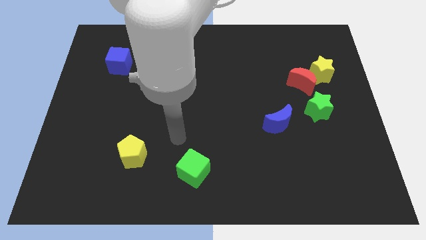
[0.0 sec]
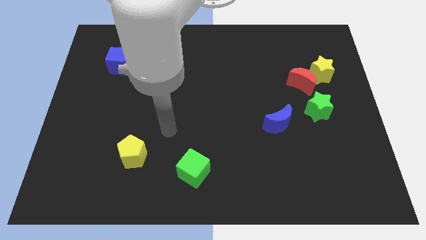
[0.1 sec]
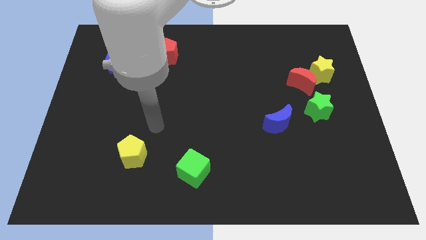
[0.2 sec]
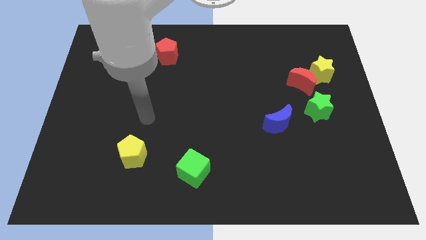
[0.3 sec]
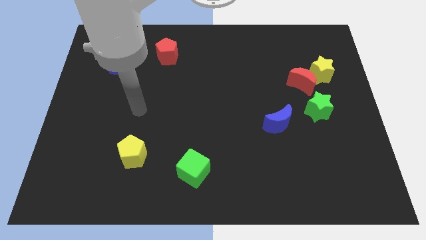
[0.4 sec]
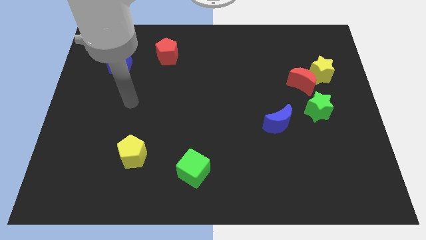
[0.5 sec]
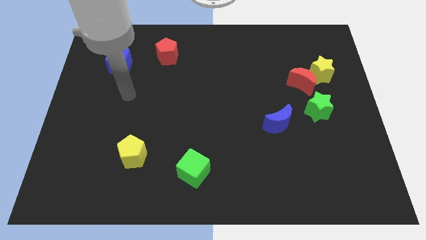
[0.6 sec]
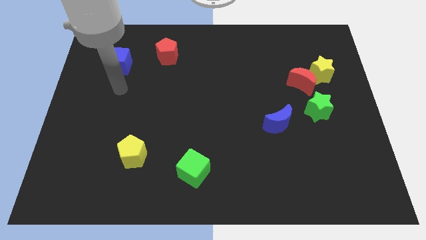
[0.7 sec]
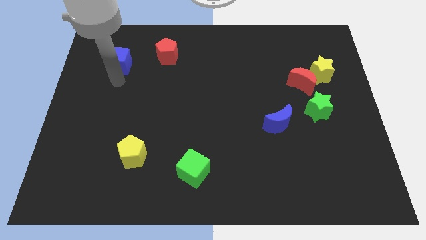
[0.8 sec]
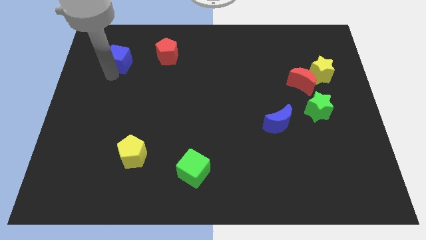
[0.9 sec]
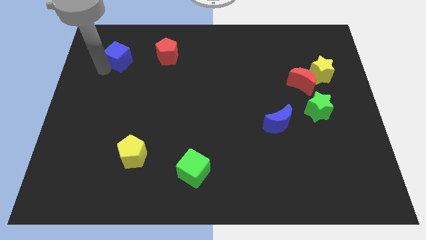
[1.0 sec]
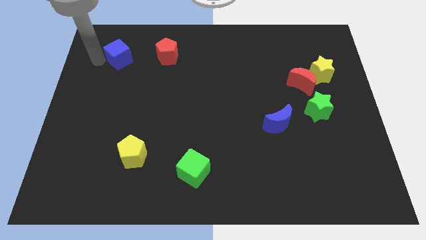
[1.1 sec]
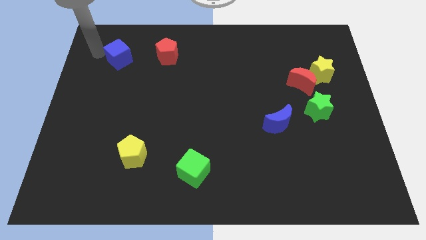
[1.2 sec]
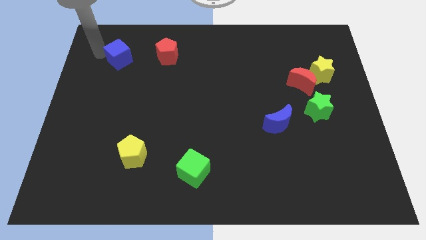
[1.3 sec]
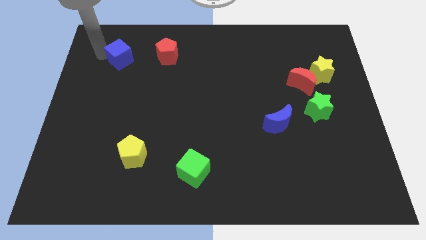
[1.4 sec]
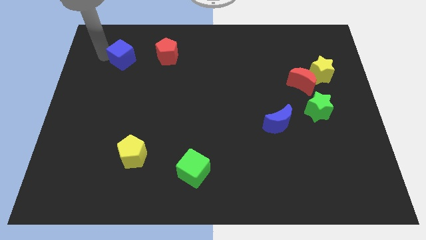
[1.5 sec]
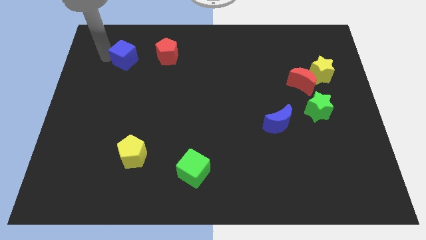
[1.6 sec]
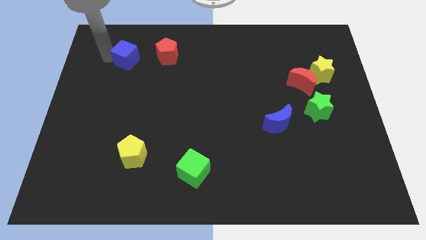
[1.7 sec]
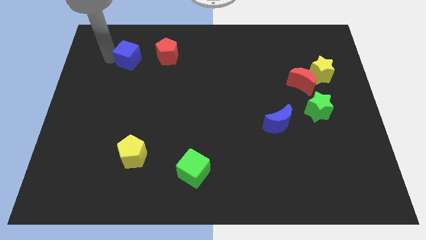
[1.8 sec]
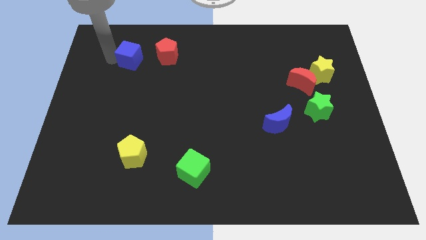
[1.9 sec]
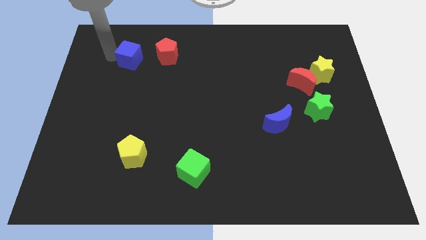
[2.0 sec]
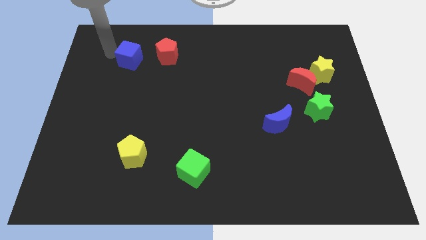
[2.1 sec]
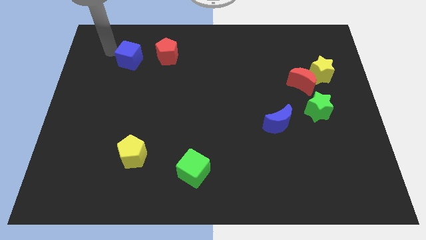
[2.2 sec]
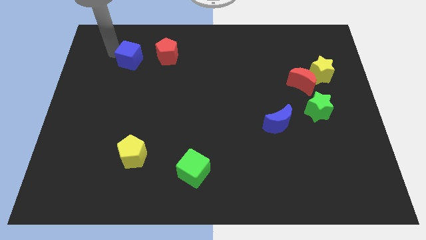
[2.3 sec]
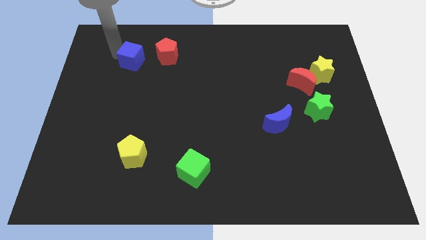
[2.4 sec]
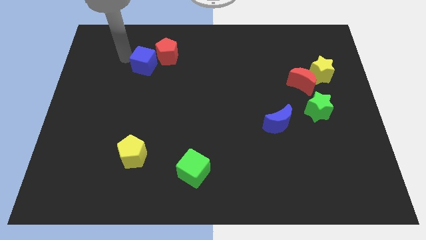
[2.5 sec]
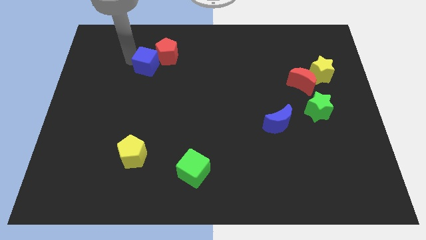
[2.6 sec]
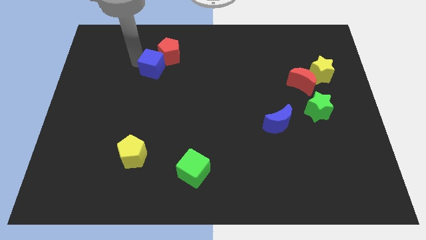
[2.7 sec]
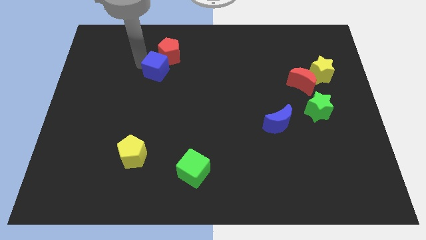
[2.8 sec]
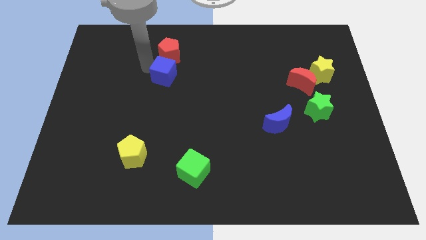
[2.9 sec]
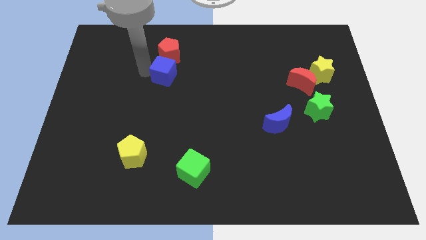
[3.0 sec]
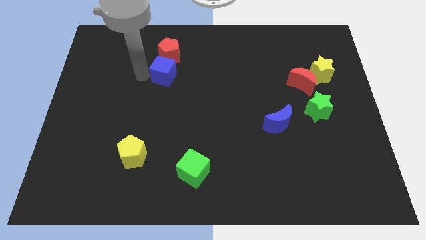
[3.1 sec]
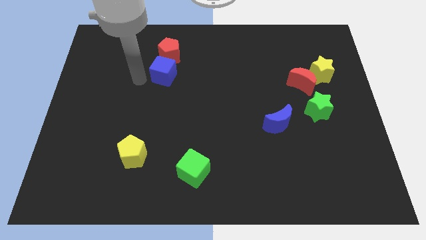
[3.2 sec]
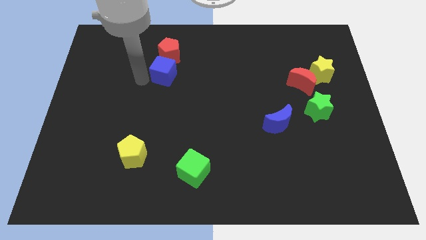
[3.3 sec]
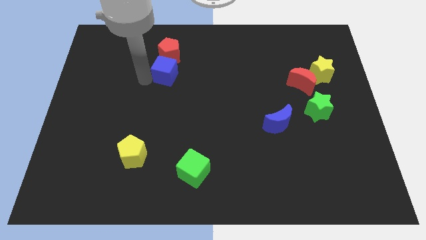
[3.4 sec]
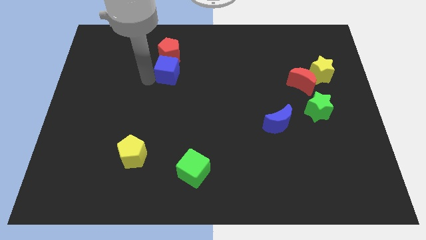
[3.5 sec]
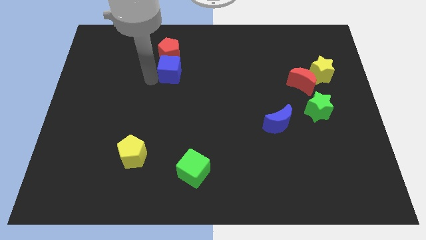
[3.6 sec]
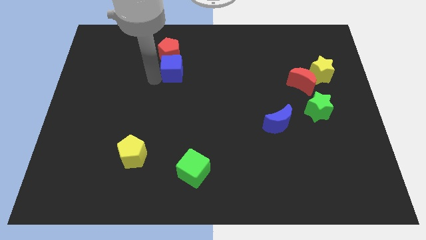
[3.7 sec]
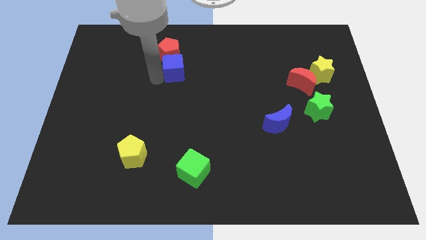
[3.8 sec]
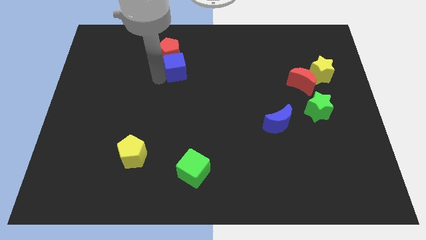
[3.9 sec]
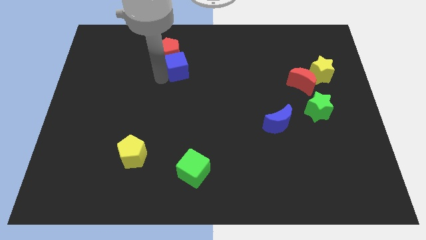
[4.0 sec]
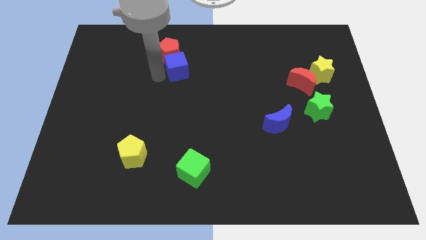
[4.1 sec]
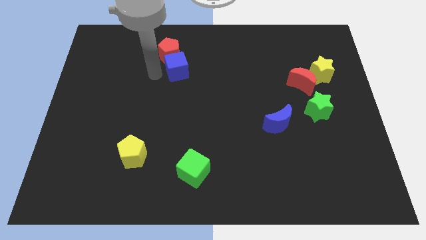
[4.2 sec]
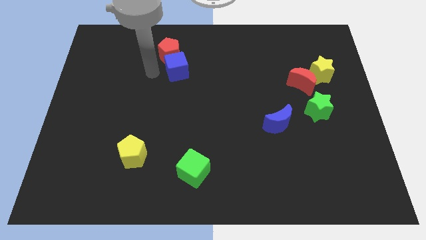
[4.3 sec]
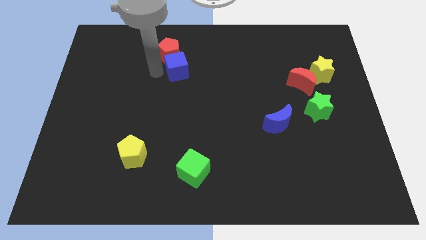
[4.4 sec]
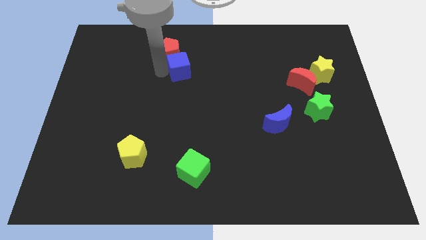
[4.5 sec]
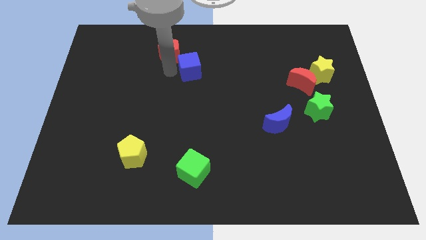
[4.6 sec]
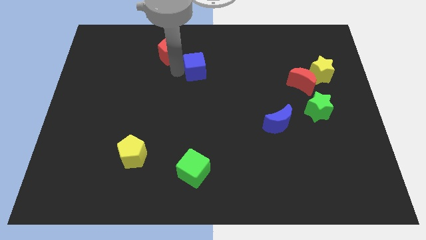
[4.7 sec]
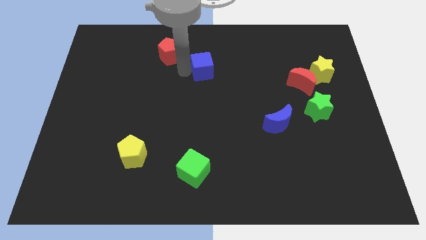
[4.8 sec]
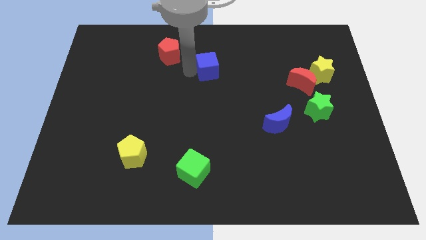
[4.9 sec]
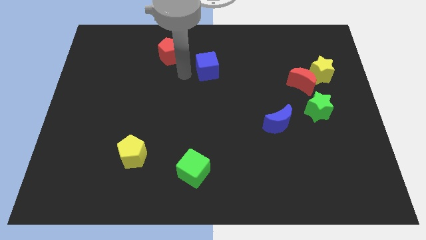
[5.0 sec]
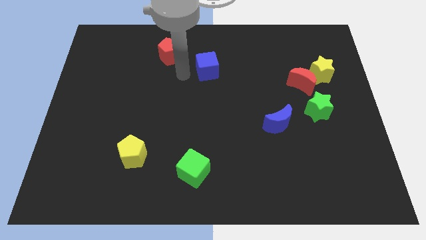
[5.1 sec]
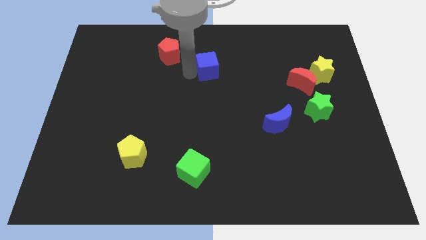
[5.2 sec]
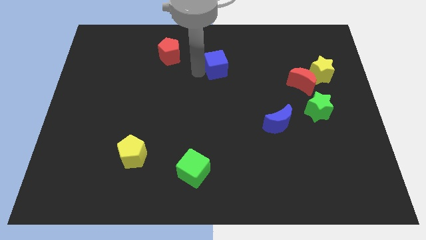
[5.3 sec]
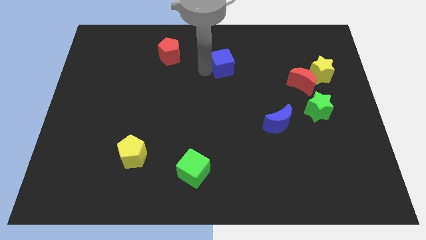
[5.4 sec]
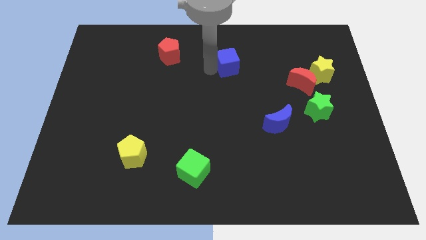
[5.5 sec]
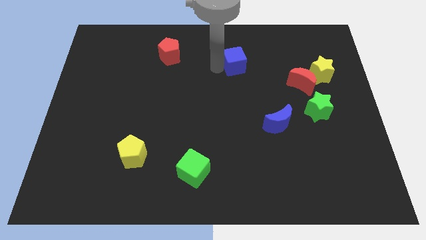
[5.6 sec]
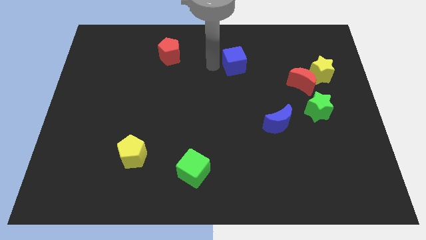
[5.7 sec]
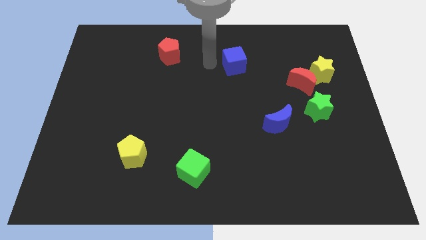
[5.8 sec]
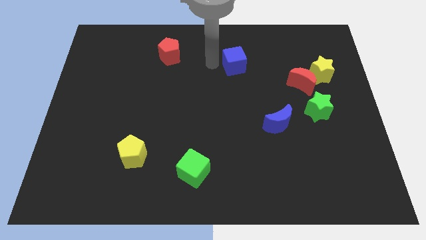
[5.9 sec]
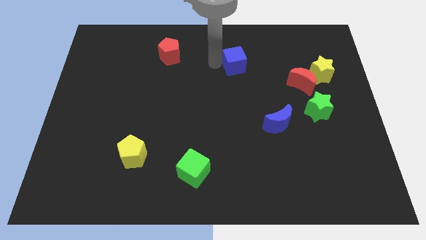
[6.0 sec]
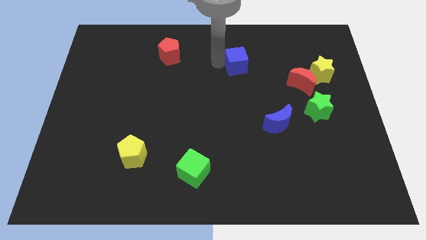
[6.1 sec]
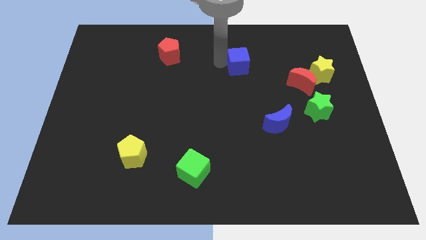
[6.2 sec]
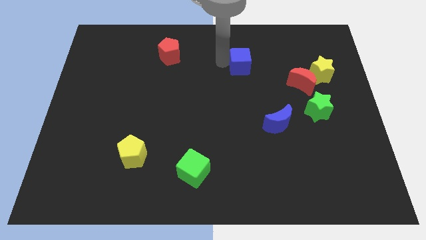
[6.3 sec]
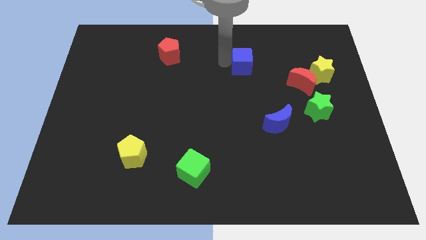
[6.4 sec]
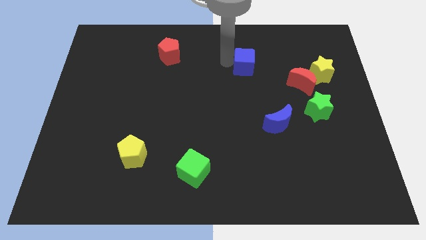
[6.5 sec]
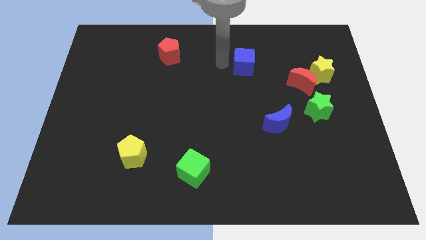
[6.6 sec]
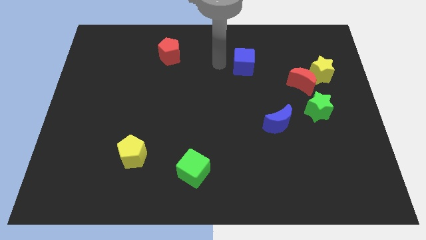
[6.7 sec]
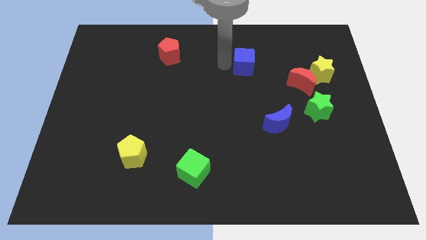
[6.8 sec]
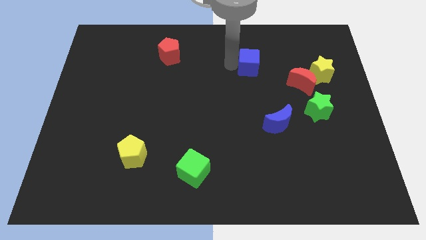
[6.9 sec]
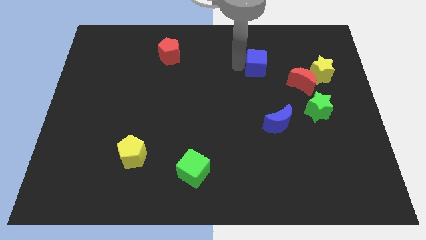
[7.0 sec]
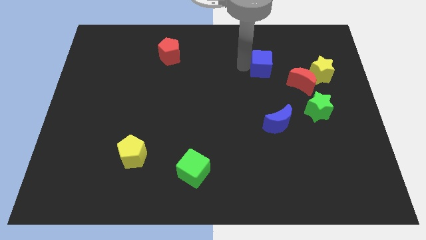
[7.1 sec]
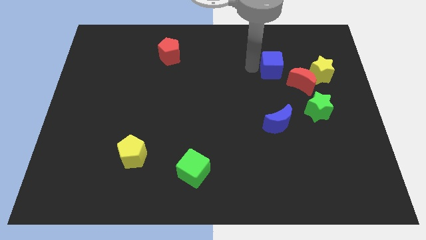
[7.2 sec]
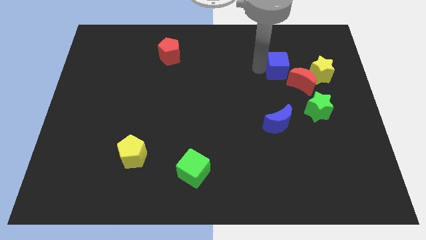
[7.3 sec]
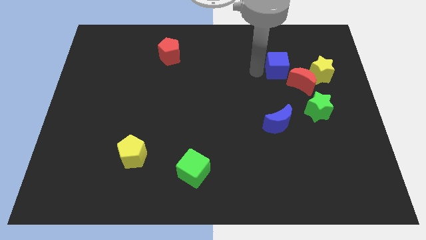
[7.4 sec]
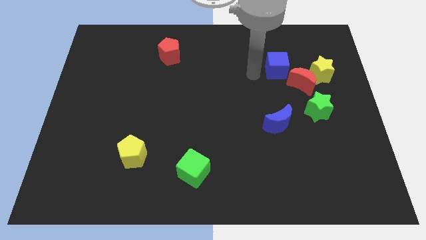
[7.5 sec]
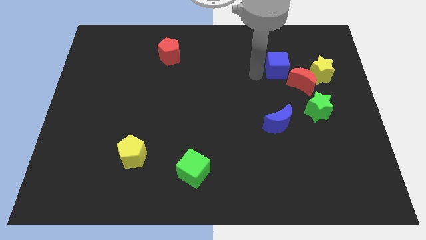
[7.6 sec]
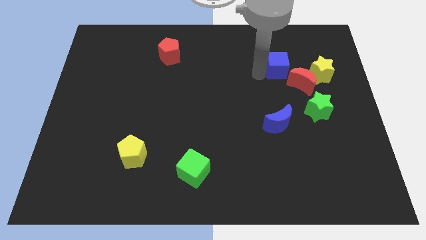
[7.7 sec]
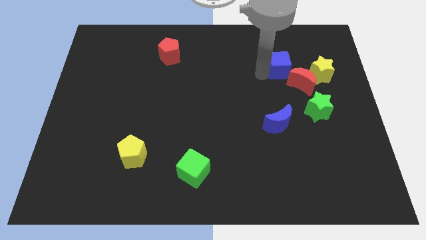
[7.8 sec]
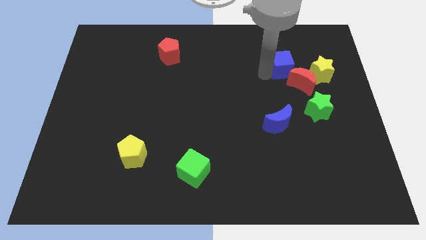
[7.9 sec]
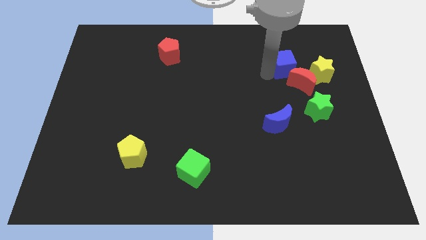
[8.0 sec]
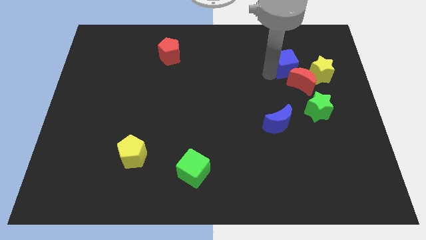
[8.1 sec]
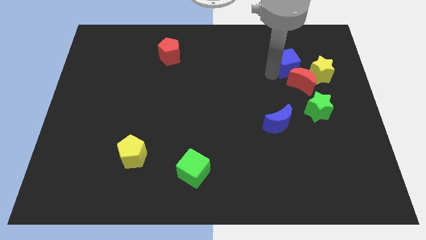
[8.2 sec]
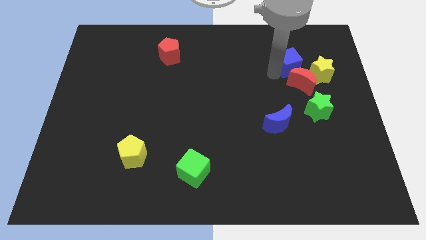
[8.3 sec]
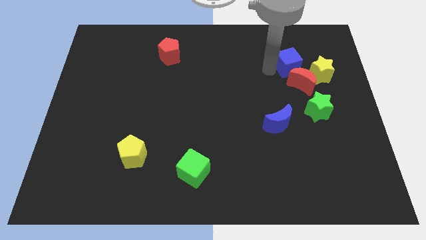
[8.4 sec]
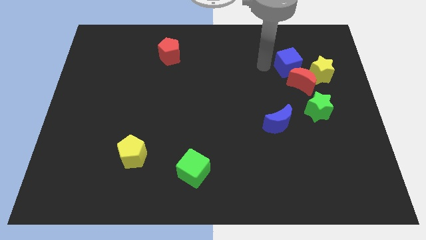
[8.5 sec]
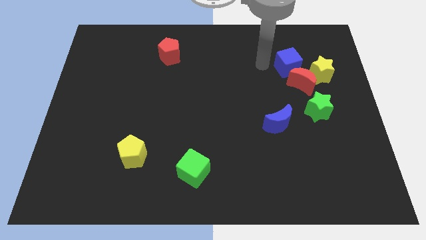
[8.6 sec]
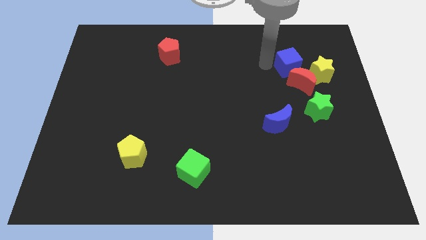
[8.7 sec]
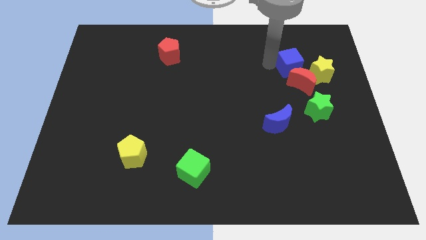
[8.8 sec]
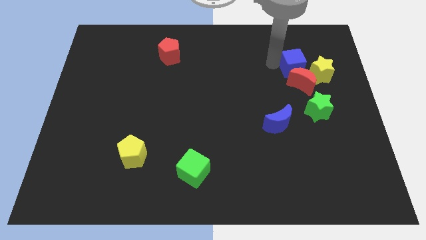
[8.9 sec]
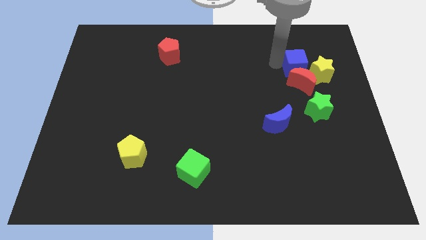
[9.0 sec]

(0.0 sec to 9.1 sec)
push the blue cube diagonally up and to the right of the red moon
